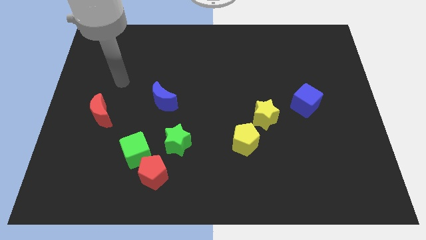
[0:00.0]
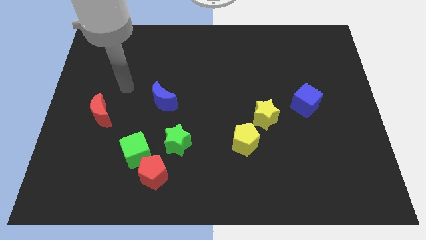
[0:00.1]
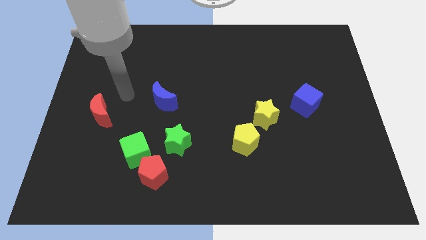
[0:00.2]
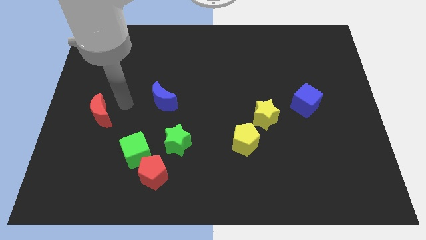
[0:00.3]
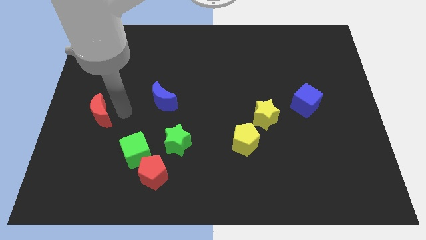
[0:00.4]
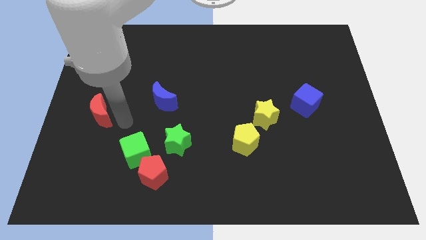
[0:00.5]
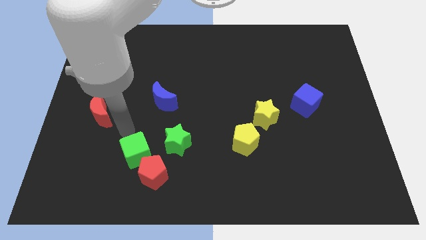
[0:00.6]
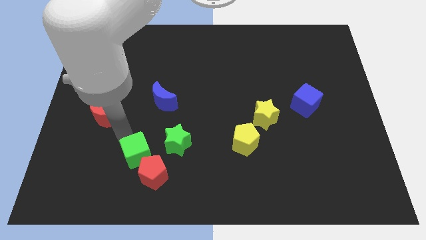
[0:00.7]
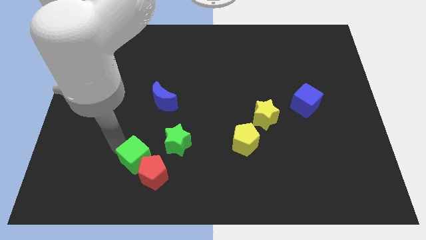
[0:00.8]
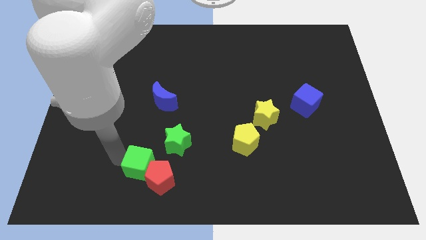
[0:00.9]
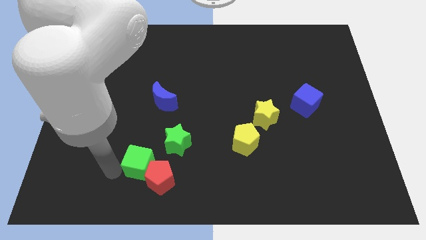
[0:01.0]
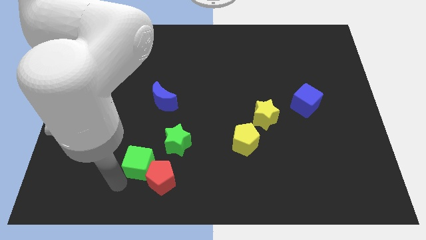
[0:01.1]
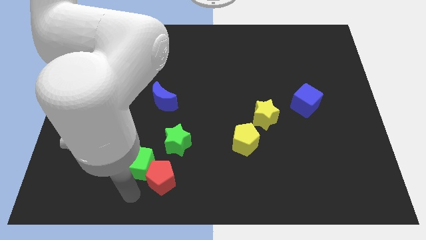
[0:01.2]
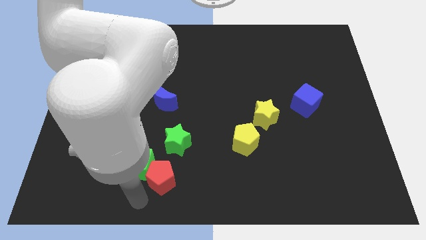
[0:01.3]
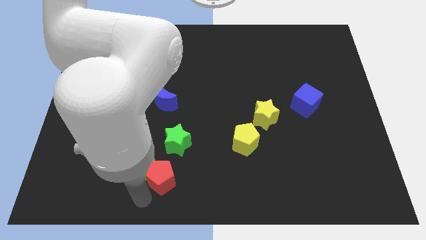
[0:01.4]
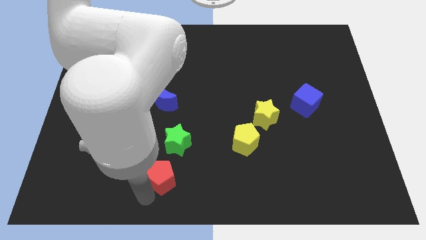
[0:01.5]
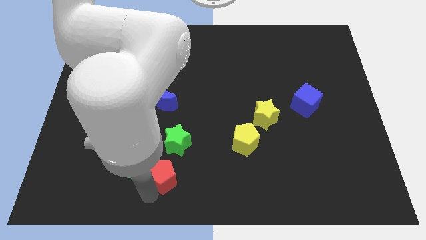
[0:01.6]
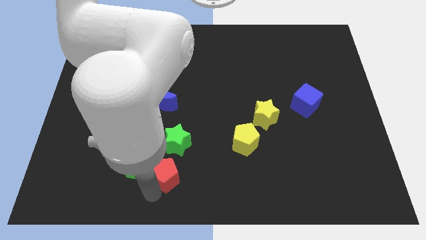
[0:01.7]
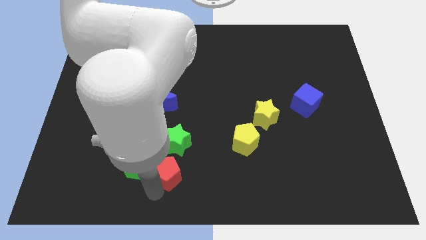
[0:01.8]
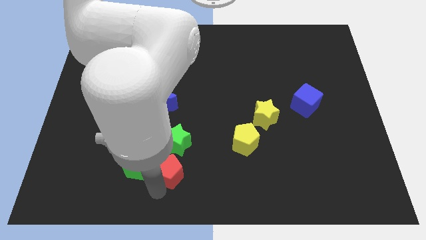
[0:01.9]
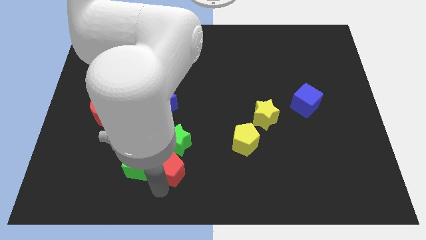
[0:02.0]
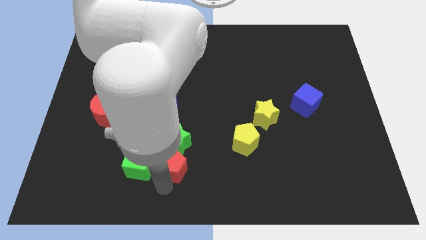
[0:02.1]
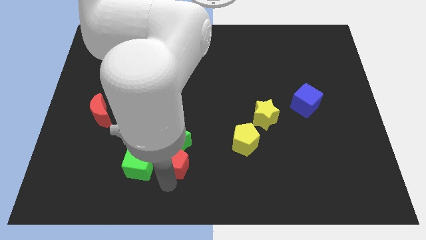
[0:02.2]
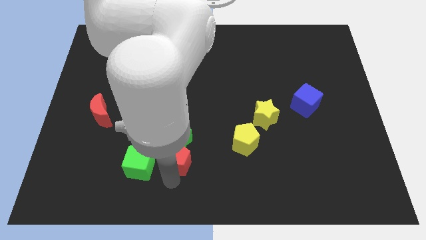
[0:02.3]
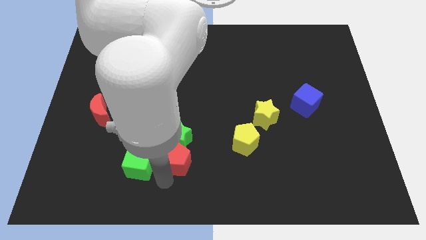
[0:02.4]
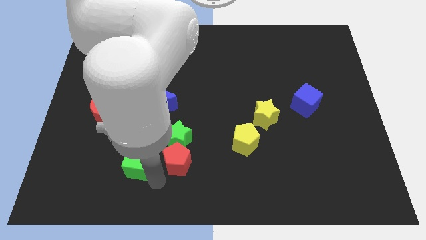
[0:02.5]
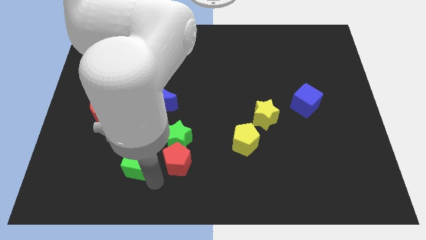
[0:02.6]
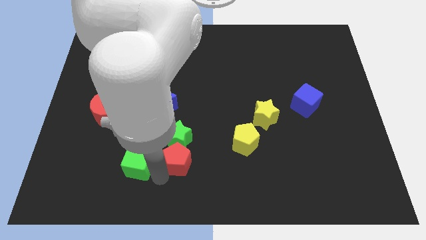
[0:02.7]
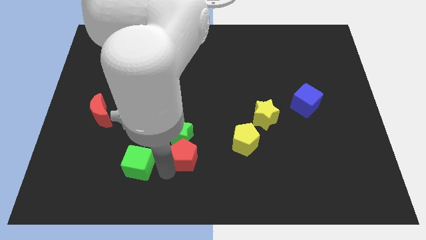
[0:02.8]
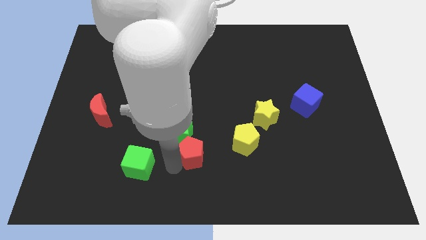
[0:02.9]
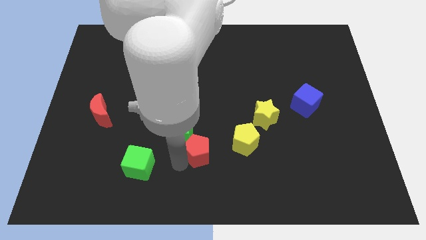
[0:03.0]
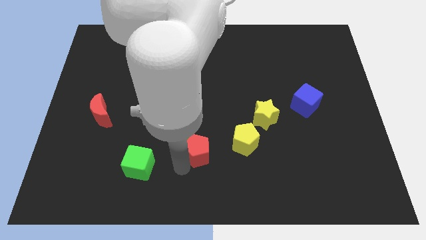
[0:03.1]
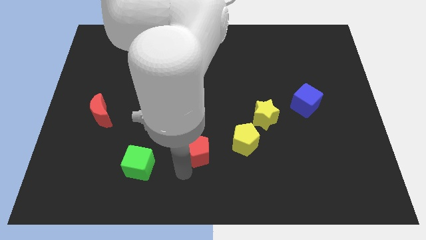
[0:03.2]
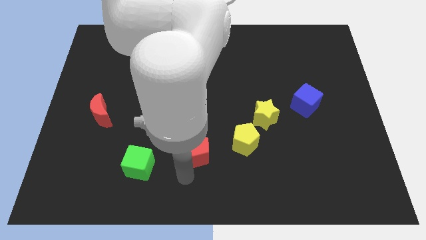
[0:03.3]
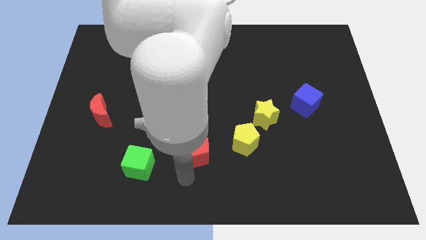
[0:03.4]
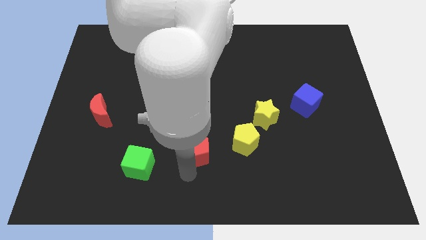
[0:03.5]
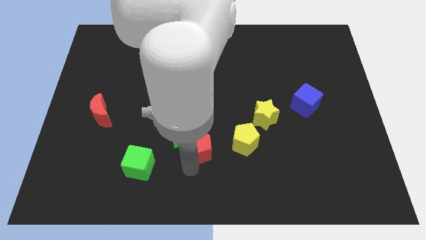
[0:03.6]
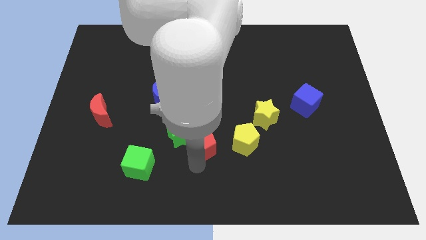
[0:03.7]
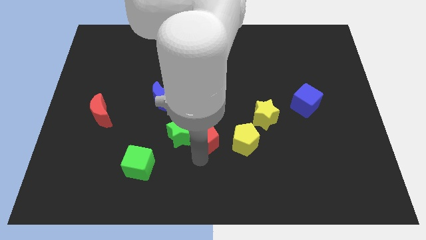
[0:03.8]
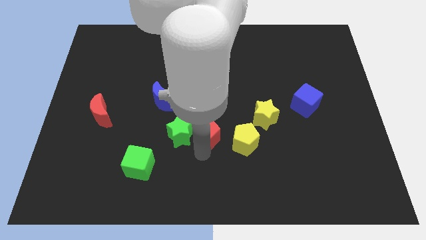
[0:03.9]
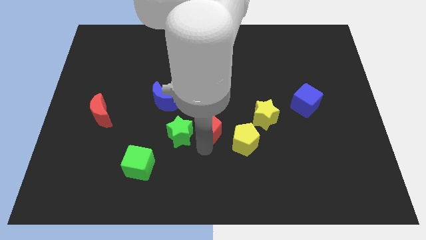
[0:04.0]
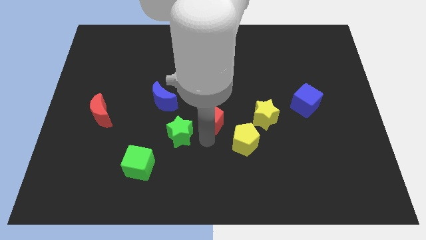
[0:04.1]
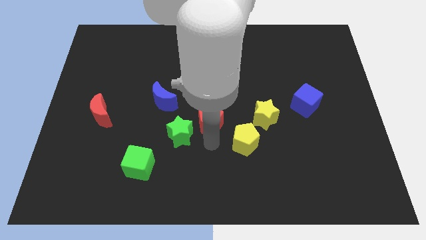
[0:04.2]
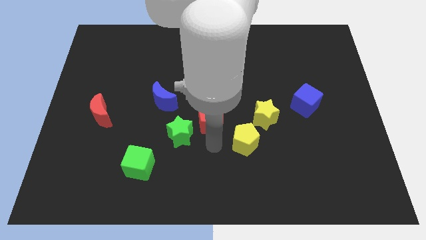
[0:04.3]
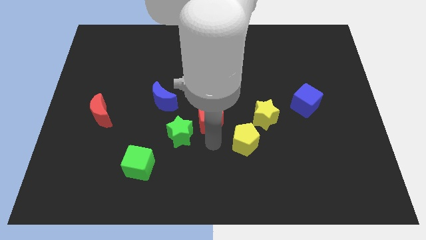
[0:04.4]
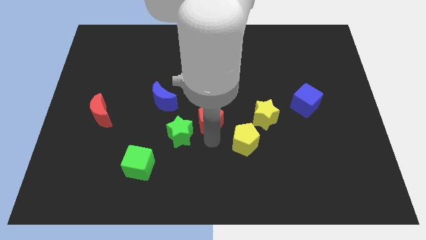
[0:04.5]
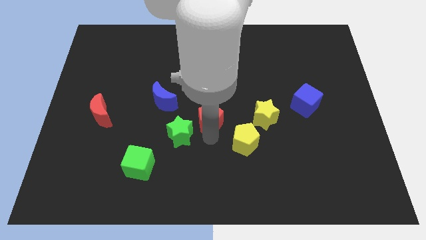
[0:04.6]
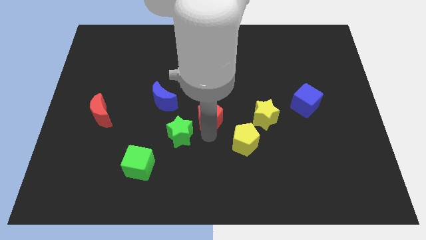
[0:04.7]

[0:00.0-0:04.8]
slide the red pentagon right of the blue moon

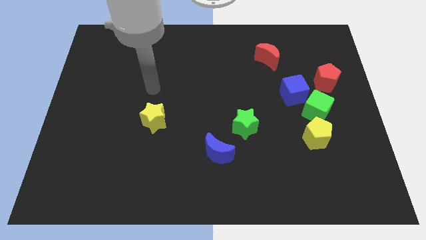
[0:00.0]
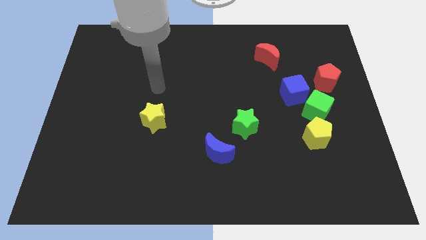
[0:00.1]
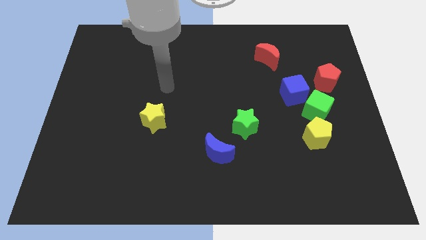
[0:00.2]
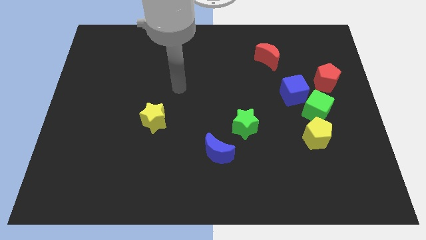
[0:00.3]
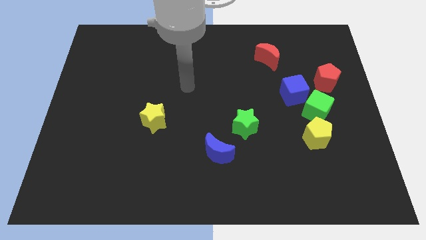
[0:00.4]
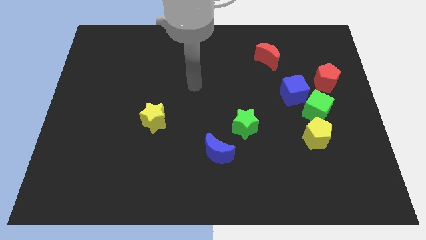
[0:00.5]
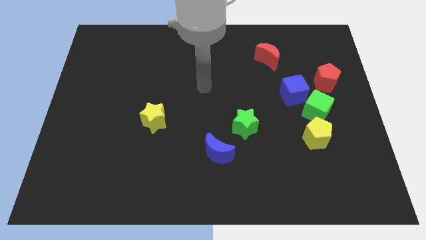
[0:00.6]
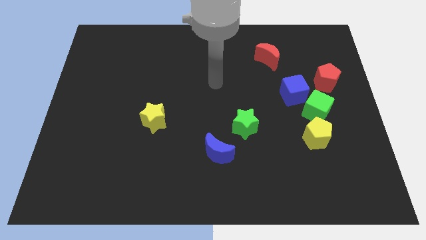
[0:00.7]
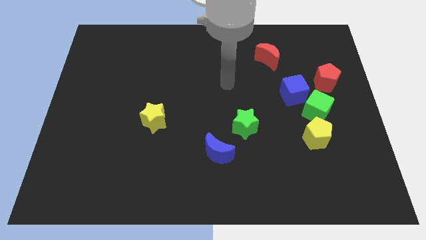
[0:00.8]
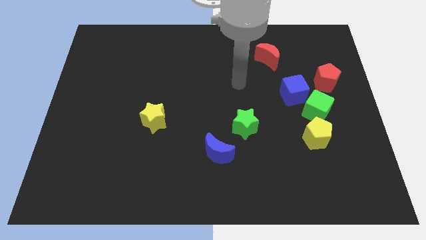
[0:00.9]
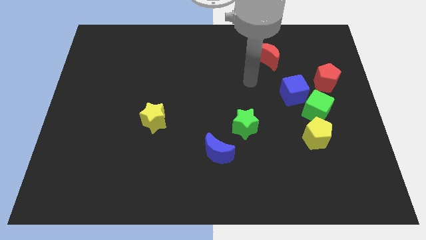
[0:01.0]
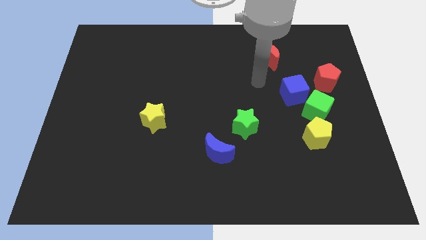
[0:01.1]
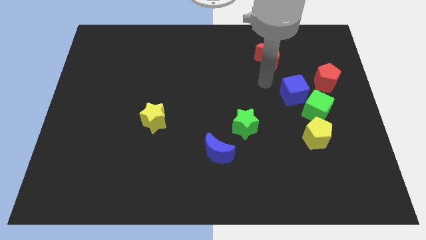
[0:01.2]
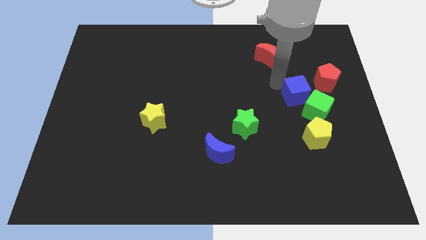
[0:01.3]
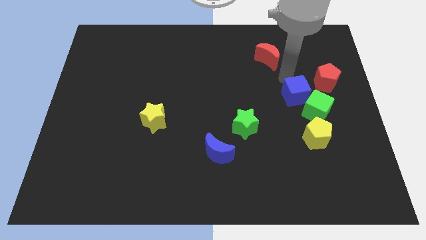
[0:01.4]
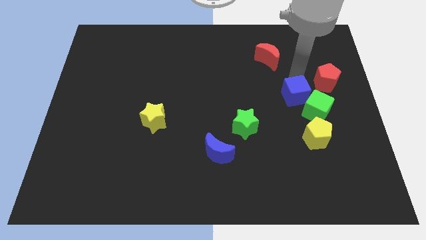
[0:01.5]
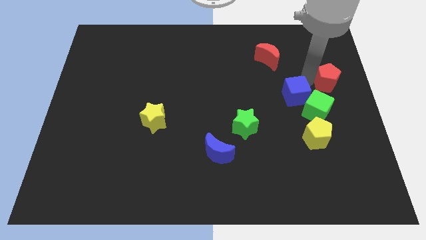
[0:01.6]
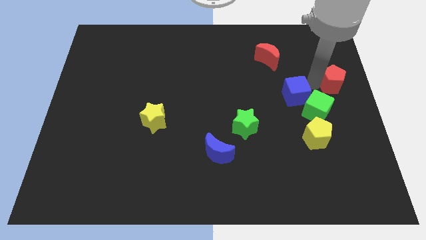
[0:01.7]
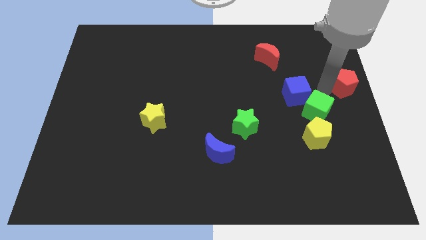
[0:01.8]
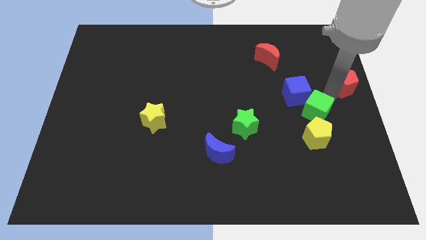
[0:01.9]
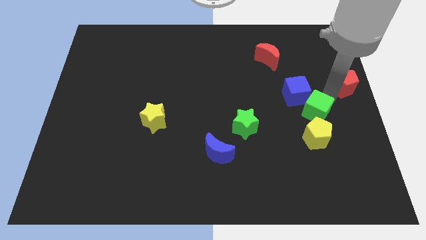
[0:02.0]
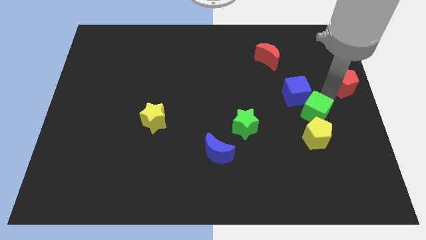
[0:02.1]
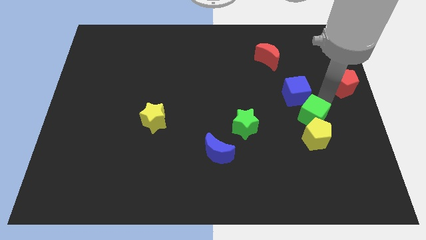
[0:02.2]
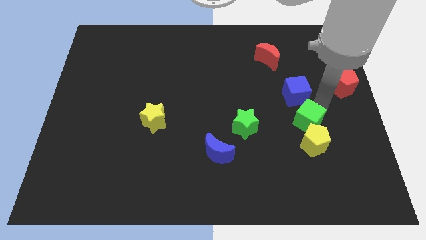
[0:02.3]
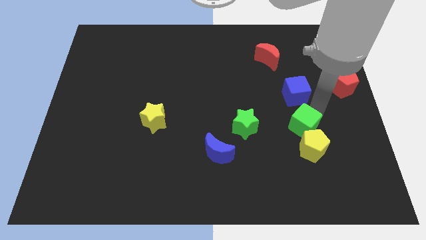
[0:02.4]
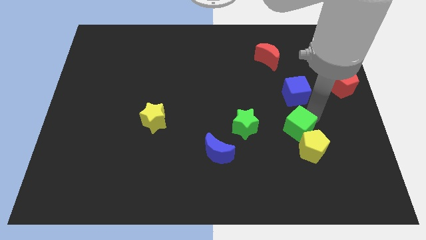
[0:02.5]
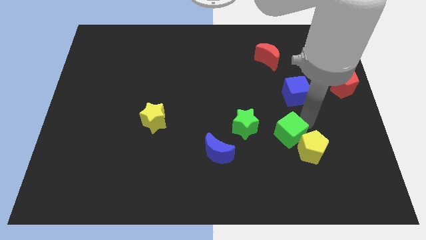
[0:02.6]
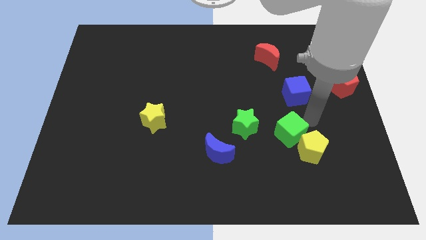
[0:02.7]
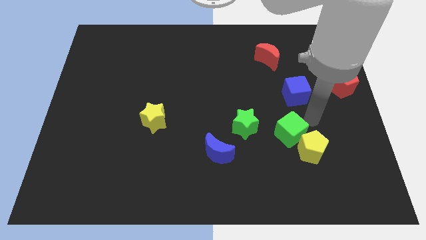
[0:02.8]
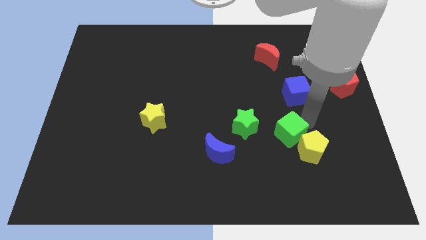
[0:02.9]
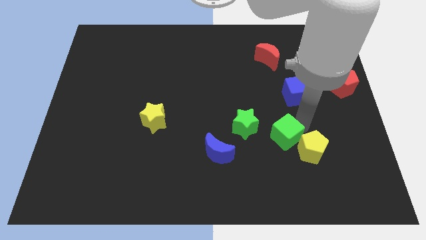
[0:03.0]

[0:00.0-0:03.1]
put the green cube to the bottom right of the green star
